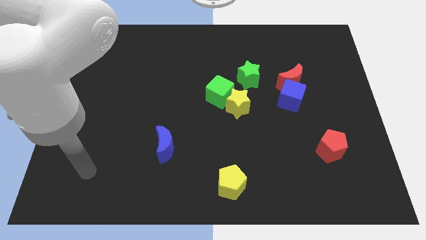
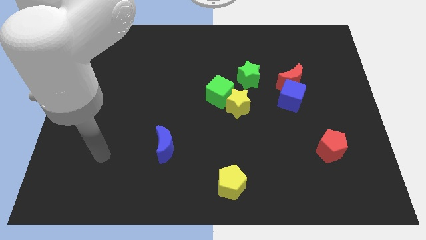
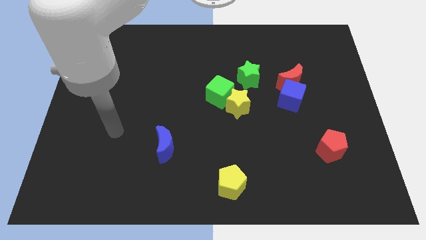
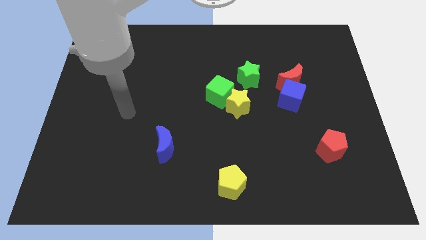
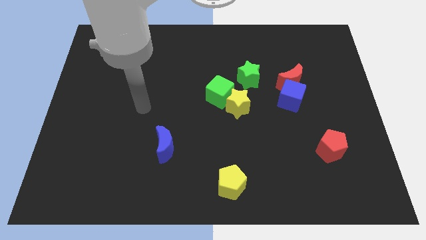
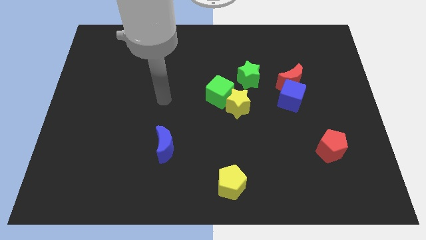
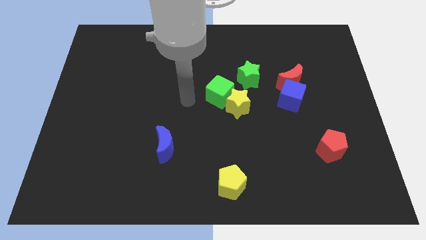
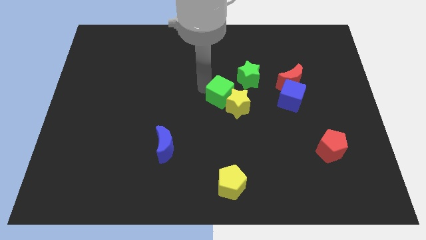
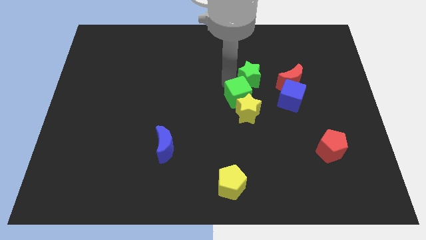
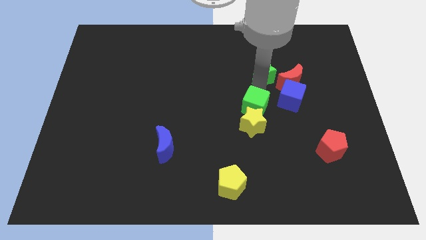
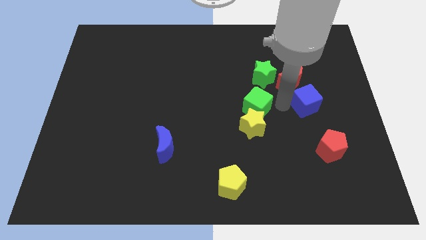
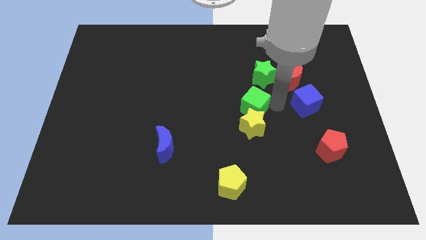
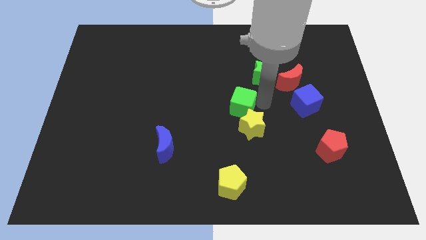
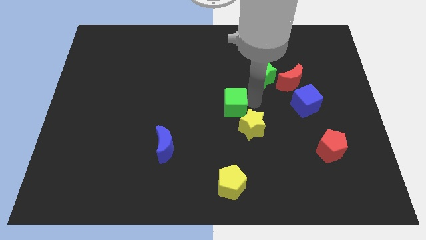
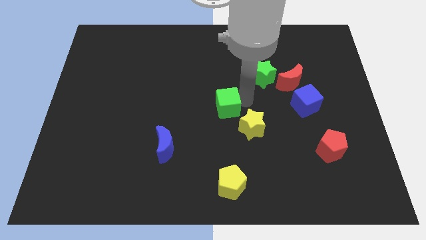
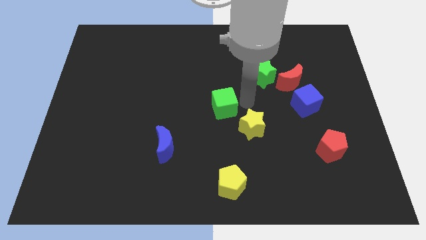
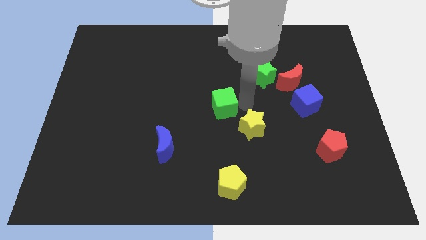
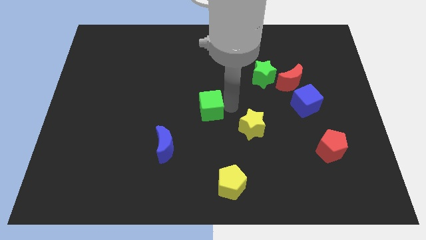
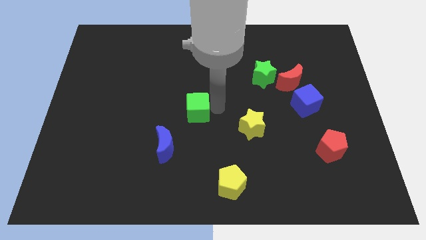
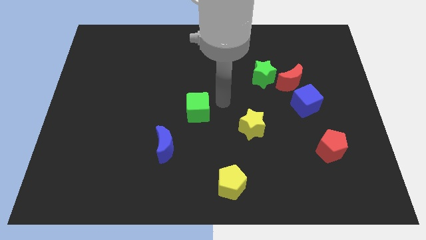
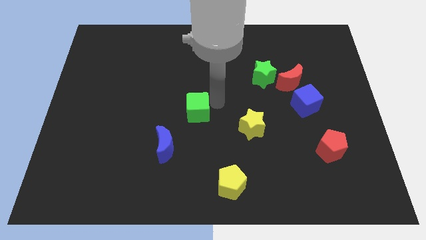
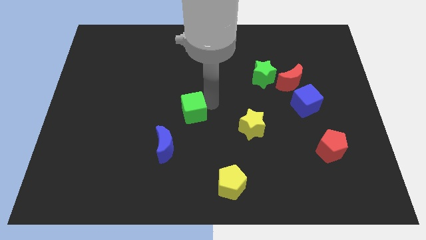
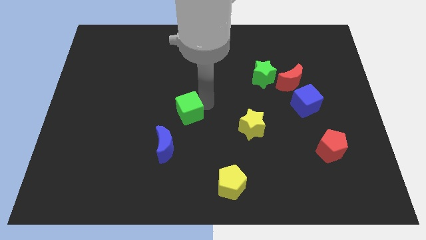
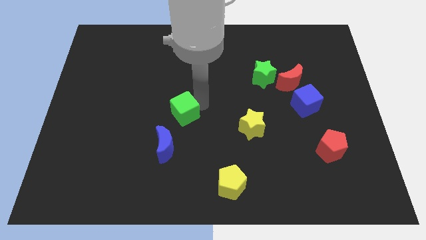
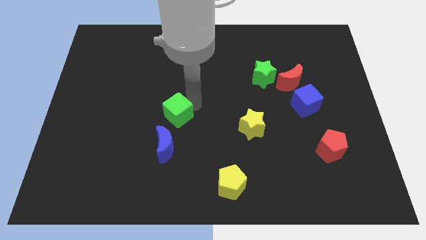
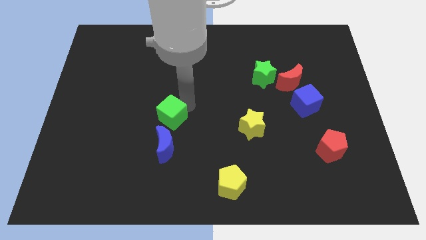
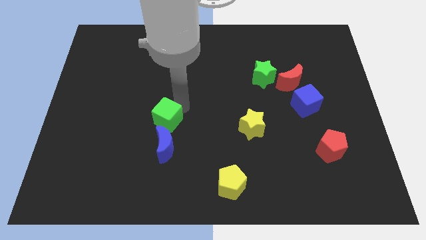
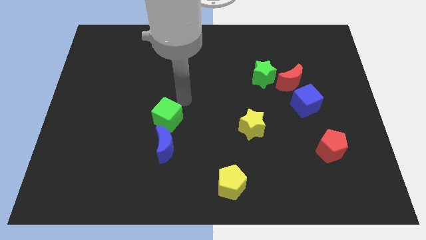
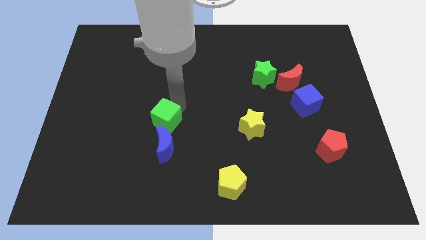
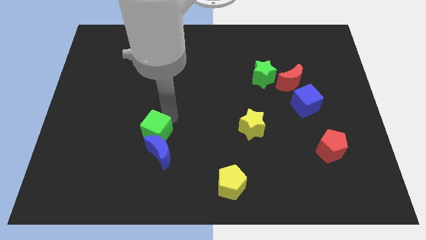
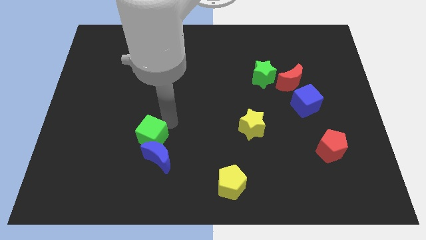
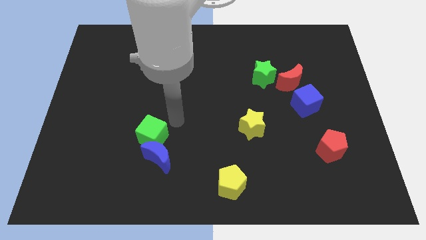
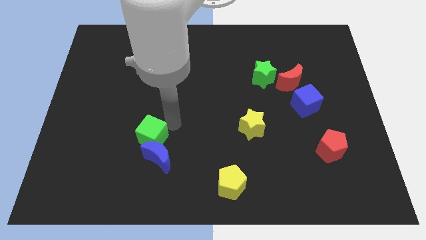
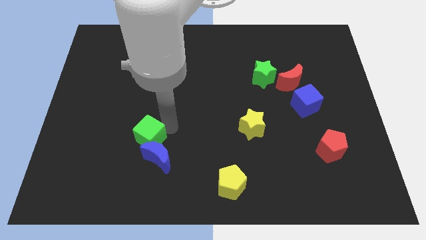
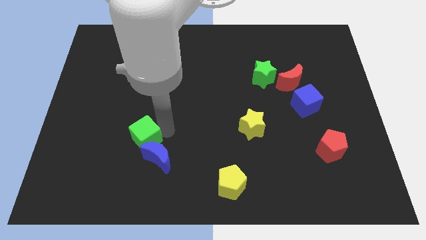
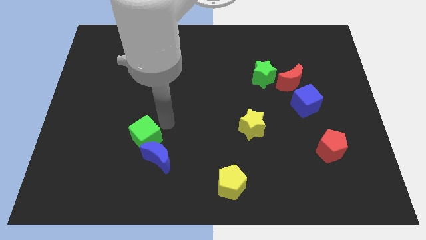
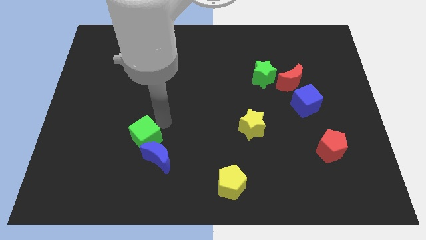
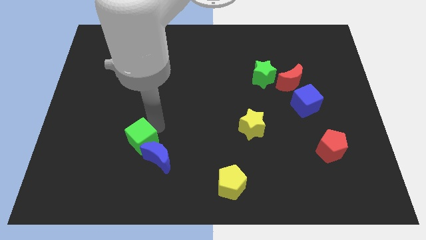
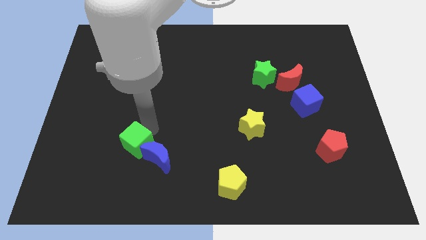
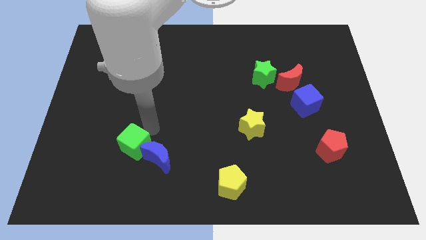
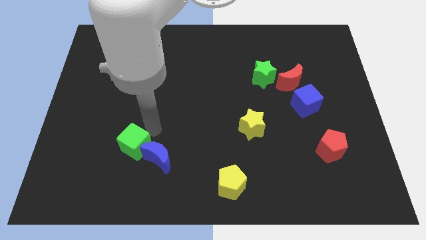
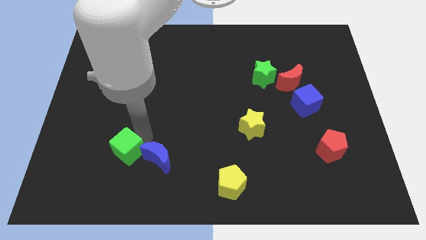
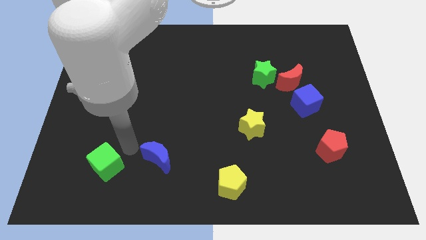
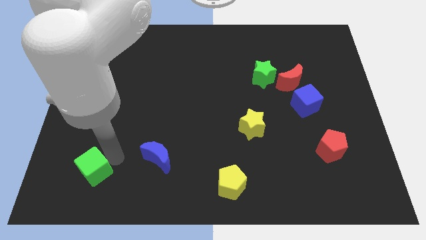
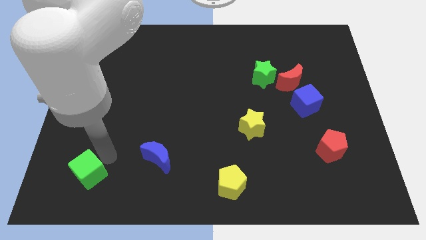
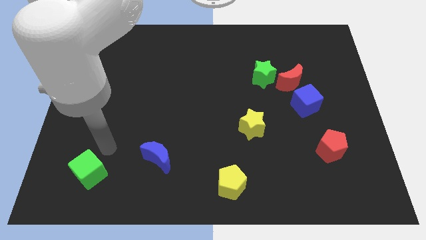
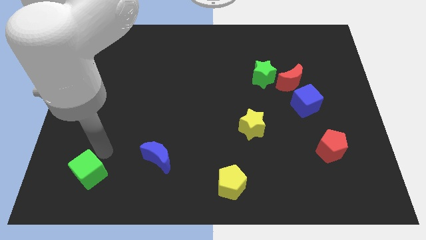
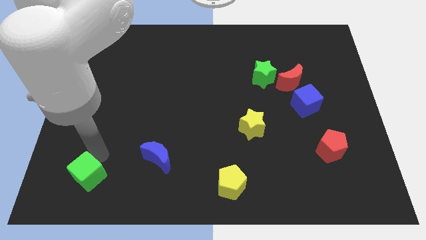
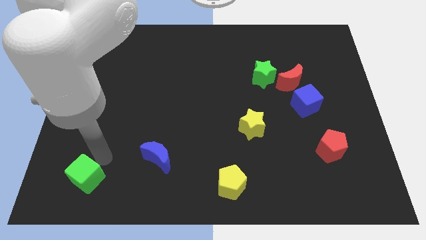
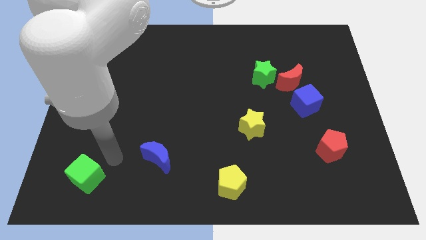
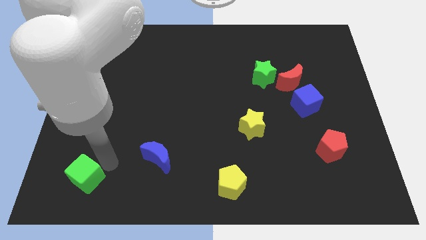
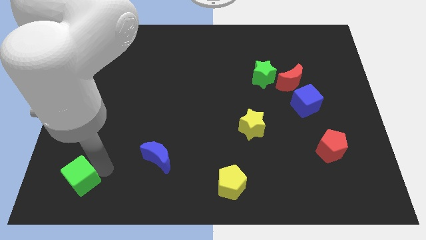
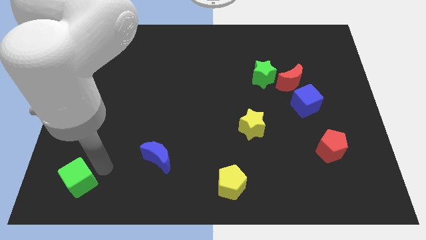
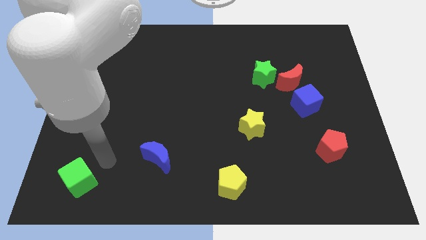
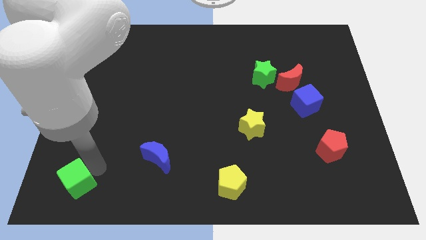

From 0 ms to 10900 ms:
move the green cube to the bottom left corner
